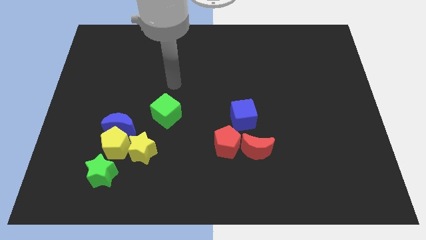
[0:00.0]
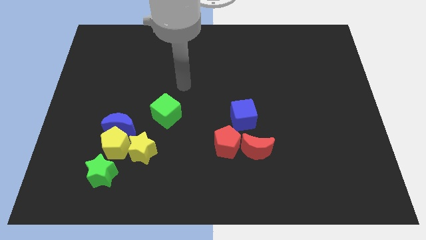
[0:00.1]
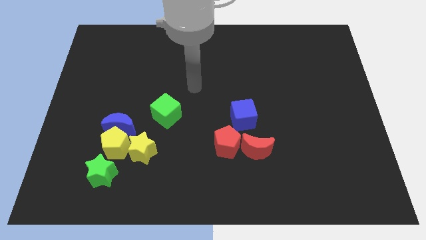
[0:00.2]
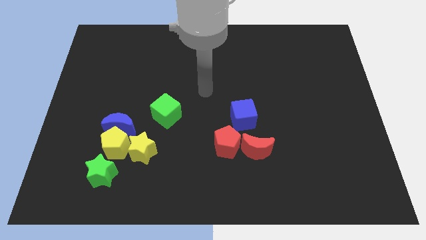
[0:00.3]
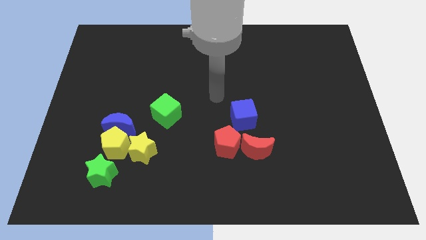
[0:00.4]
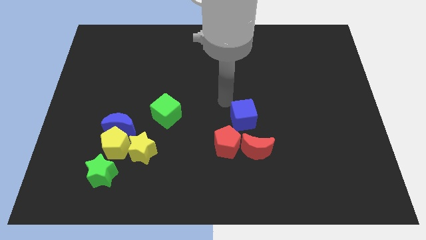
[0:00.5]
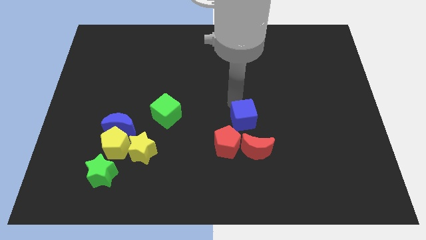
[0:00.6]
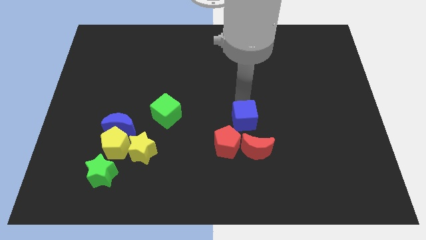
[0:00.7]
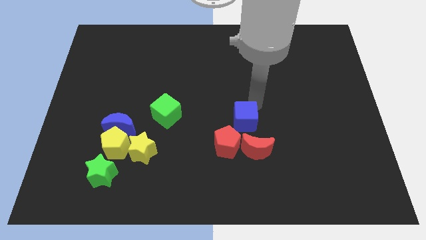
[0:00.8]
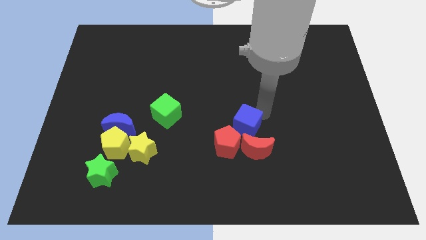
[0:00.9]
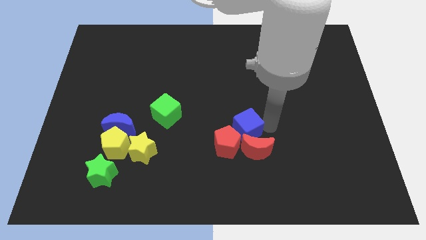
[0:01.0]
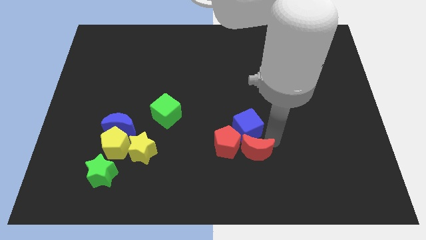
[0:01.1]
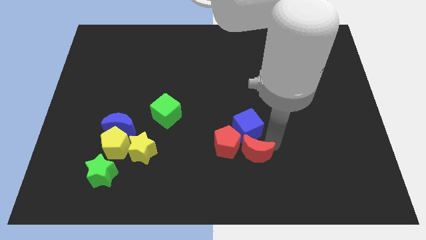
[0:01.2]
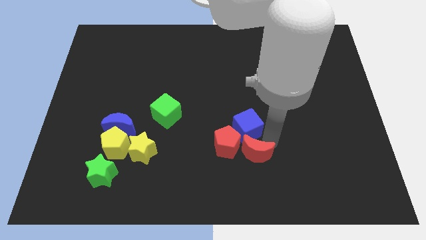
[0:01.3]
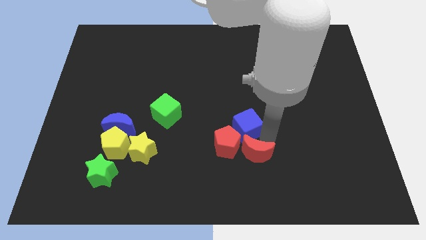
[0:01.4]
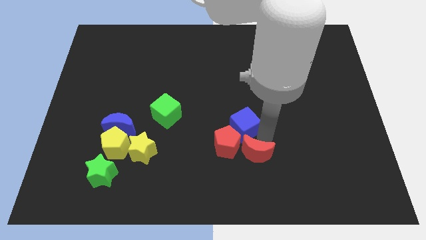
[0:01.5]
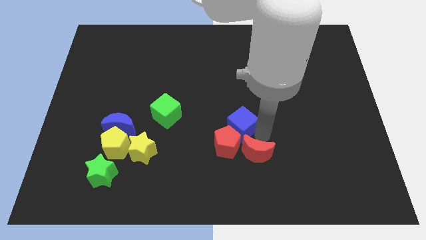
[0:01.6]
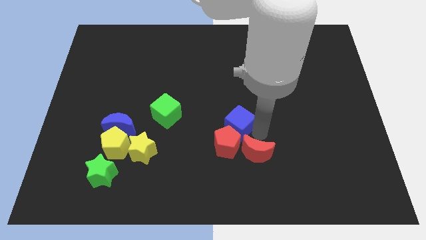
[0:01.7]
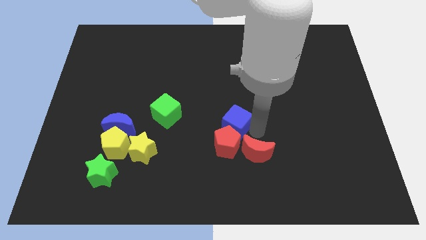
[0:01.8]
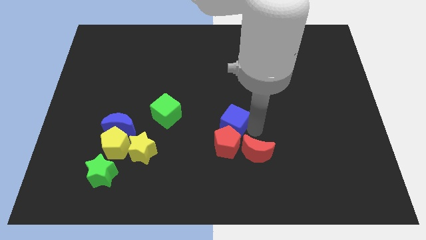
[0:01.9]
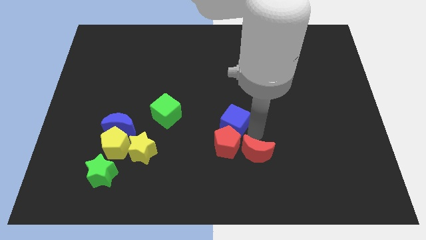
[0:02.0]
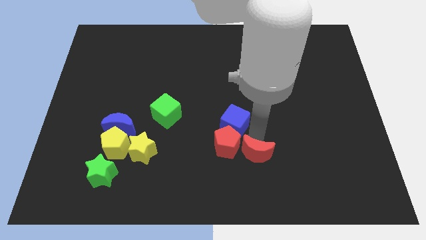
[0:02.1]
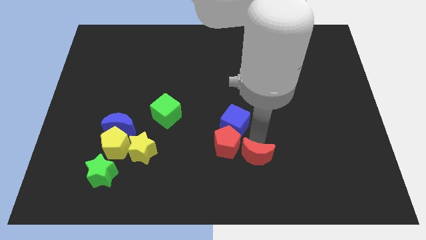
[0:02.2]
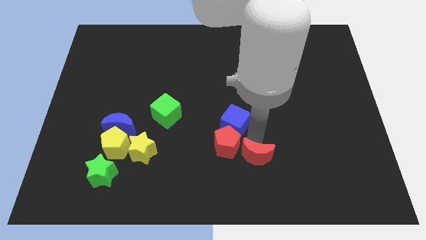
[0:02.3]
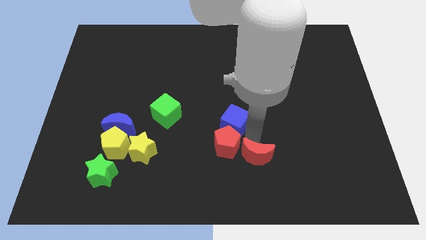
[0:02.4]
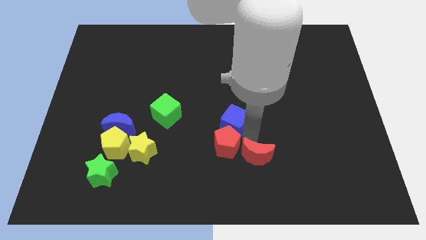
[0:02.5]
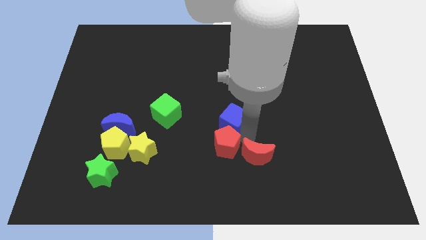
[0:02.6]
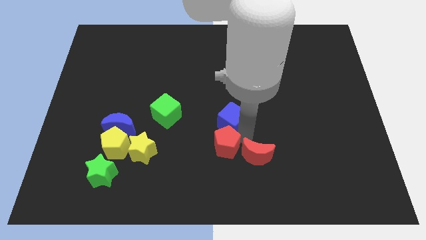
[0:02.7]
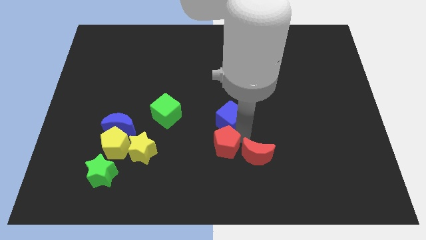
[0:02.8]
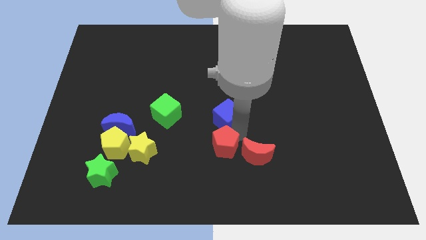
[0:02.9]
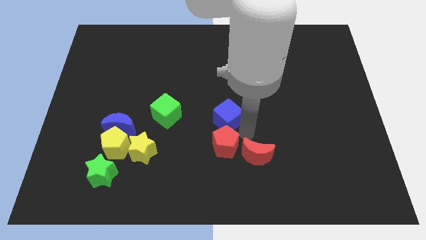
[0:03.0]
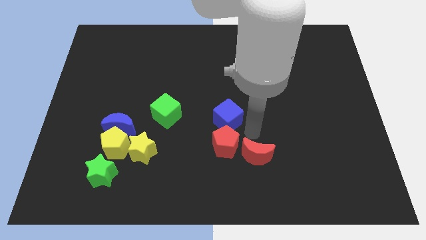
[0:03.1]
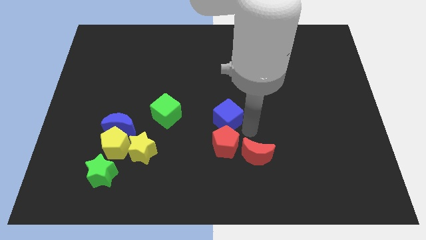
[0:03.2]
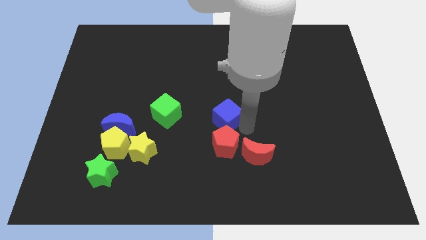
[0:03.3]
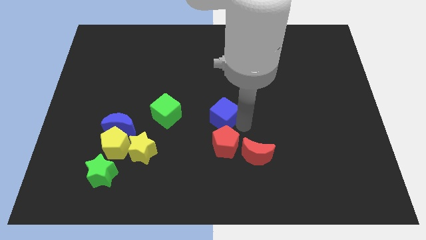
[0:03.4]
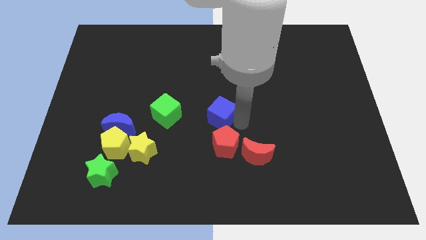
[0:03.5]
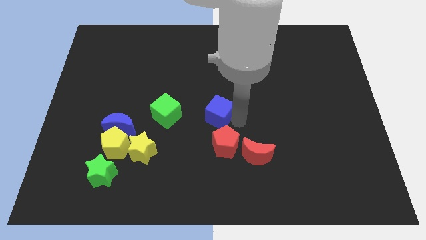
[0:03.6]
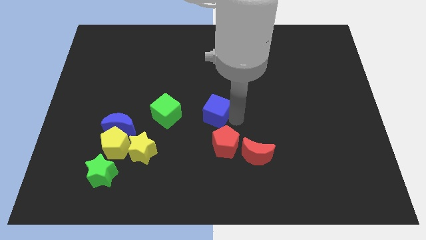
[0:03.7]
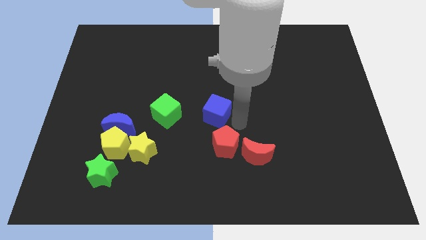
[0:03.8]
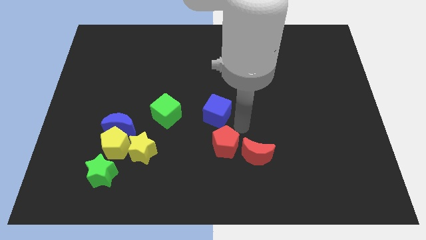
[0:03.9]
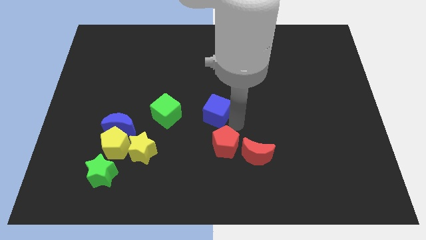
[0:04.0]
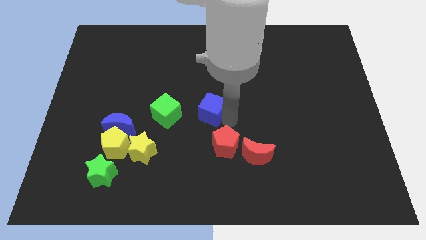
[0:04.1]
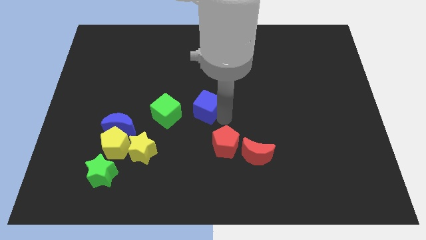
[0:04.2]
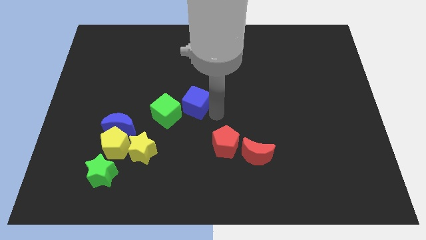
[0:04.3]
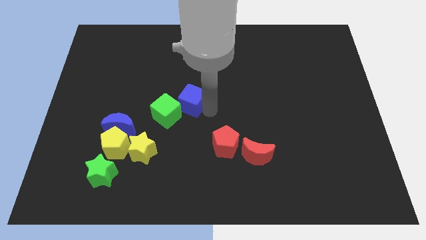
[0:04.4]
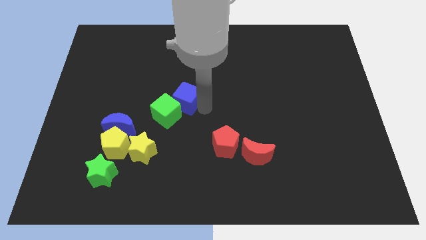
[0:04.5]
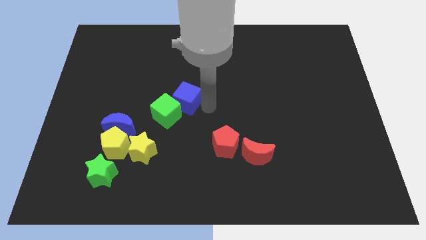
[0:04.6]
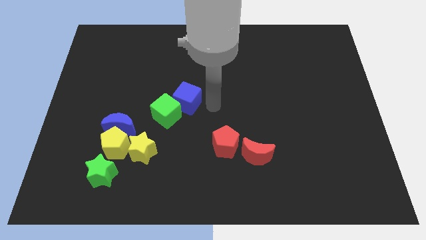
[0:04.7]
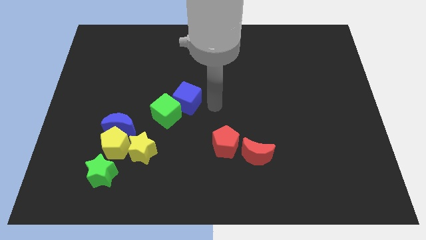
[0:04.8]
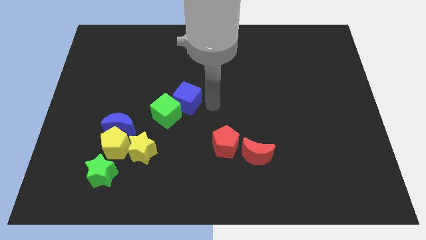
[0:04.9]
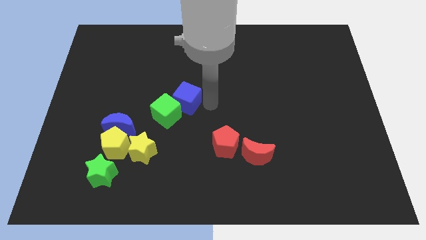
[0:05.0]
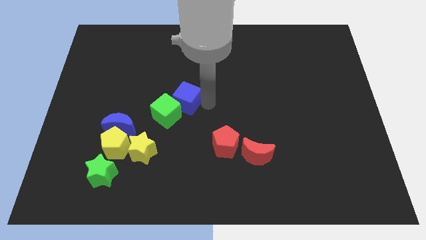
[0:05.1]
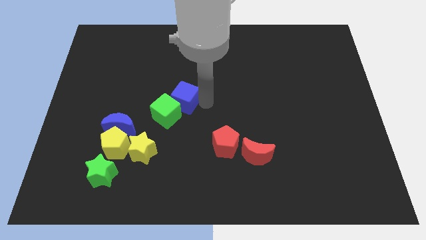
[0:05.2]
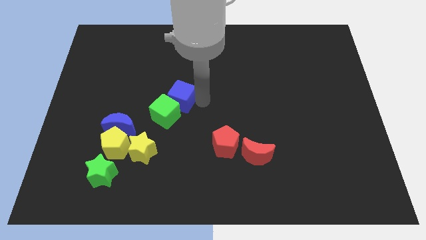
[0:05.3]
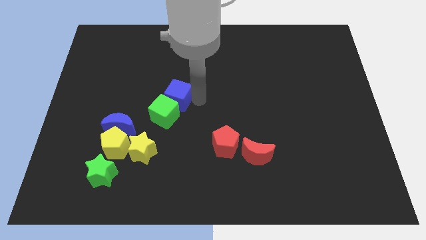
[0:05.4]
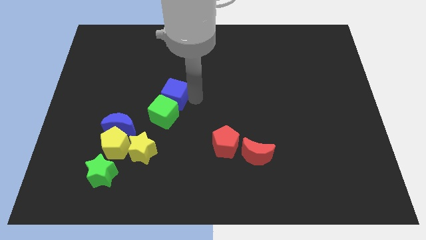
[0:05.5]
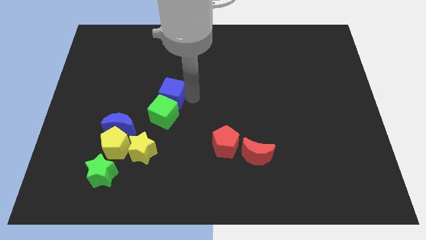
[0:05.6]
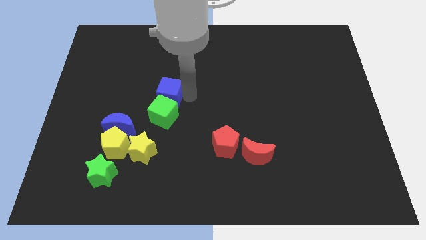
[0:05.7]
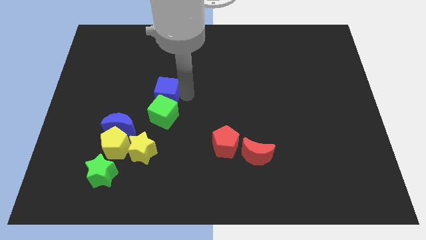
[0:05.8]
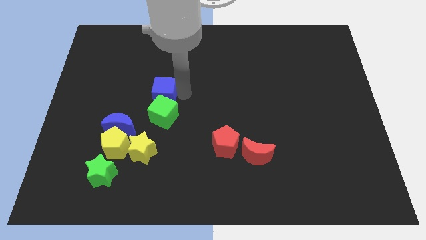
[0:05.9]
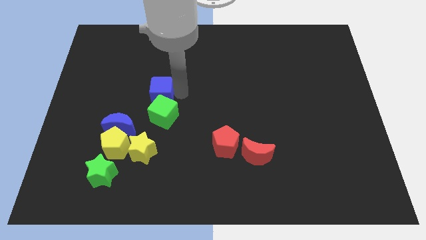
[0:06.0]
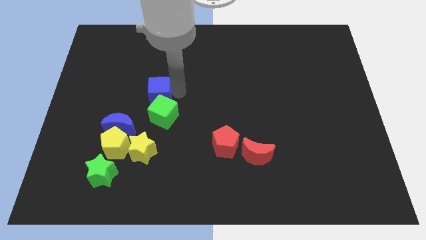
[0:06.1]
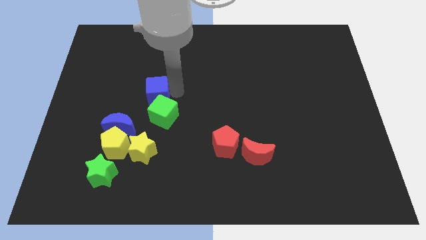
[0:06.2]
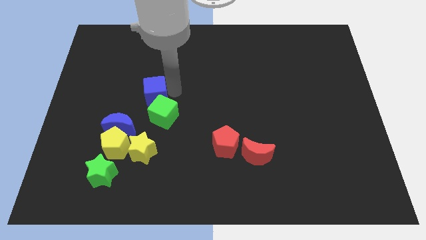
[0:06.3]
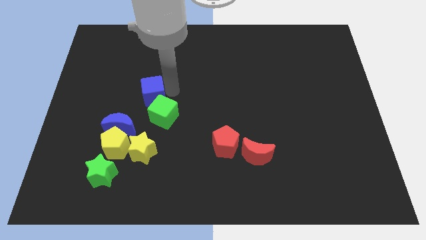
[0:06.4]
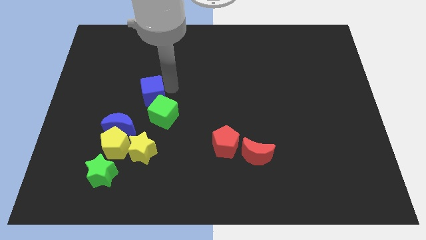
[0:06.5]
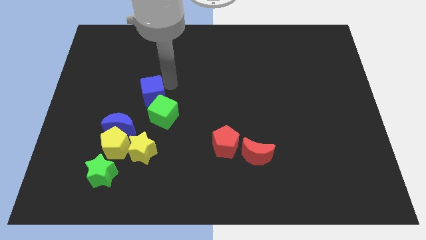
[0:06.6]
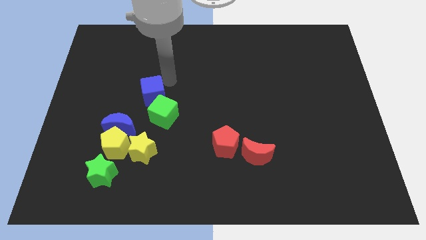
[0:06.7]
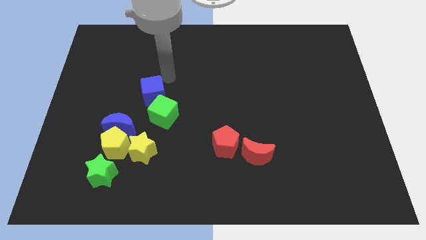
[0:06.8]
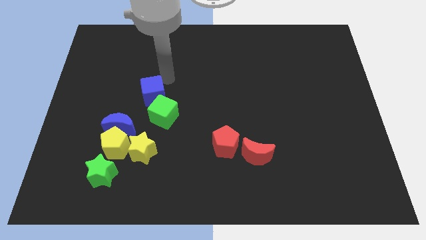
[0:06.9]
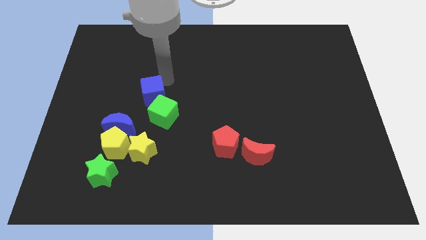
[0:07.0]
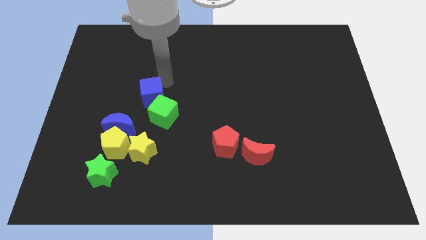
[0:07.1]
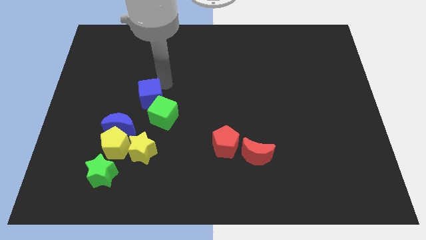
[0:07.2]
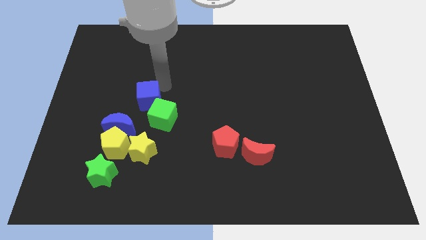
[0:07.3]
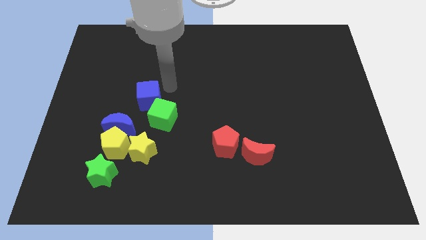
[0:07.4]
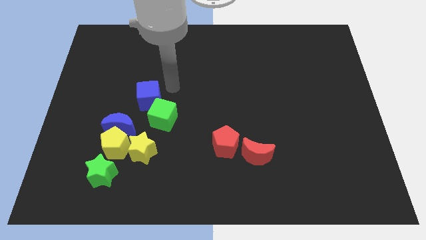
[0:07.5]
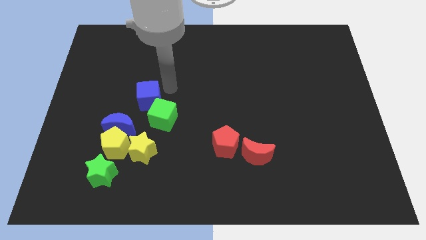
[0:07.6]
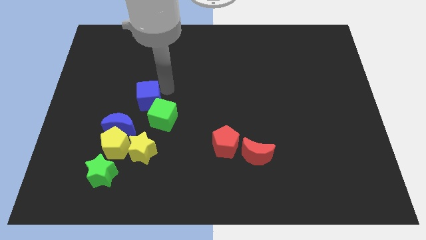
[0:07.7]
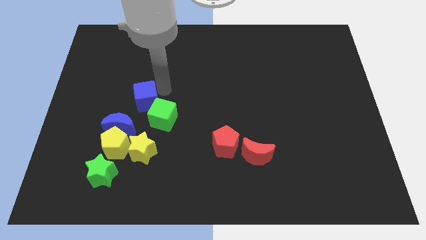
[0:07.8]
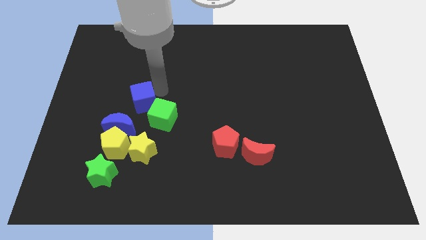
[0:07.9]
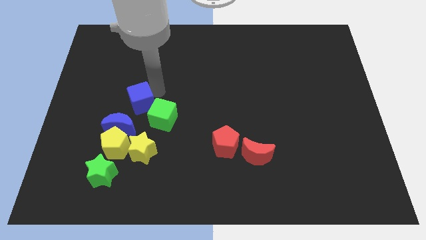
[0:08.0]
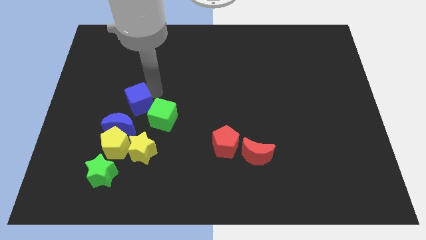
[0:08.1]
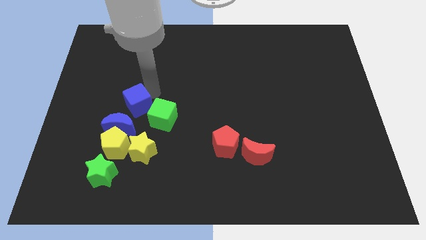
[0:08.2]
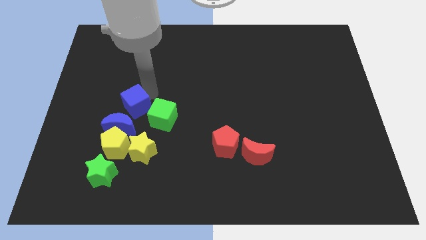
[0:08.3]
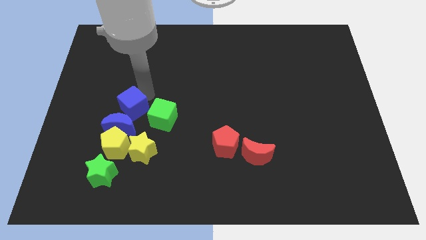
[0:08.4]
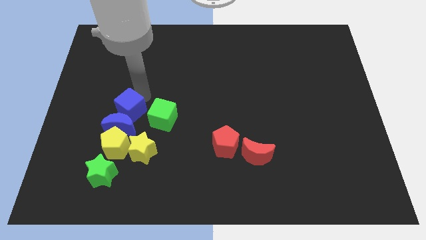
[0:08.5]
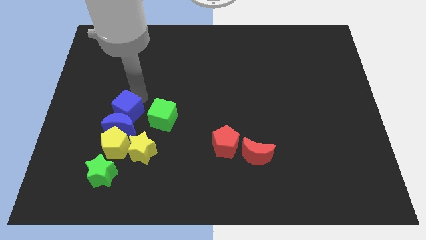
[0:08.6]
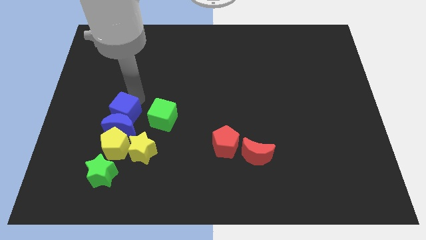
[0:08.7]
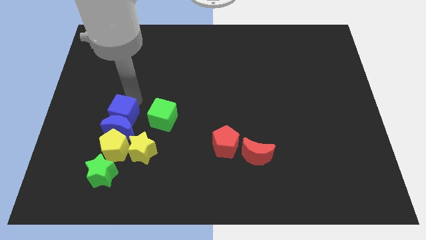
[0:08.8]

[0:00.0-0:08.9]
push the blue cube to the top side of the green star
